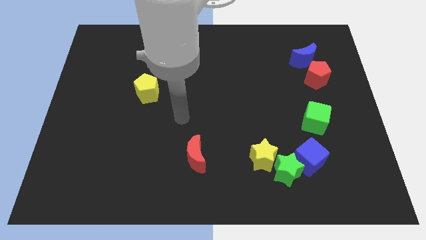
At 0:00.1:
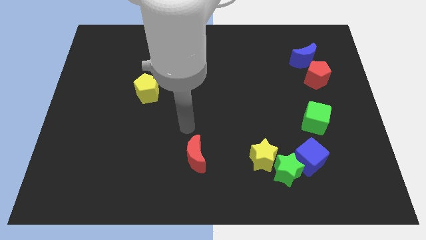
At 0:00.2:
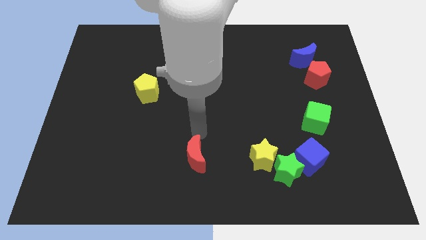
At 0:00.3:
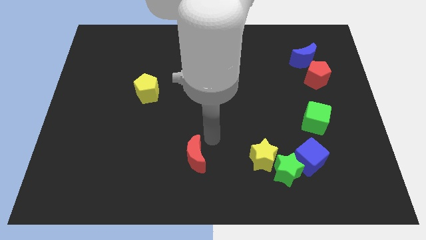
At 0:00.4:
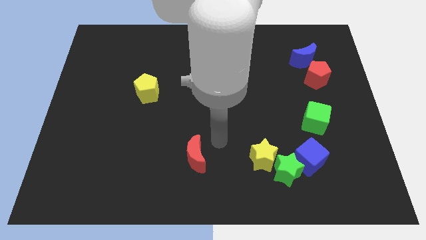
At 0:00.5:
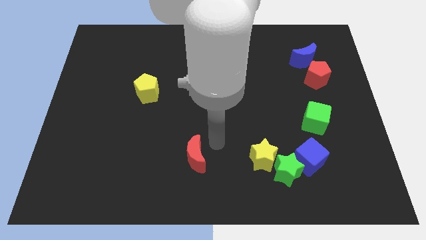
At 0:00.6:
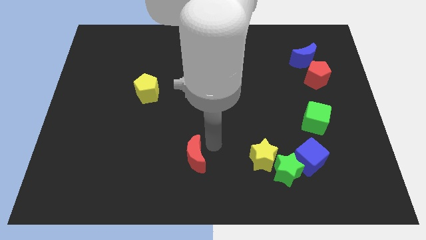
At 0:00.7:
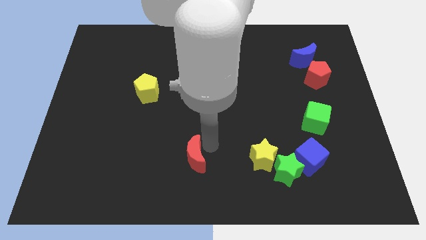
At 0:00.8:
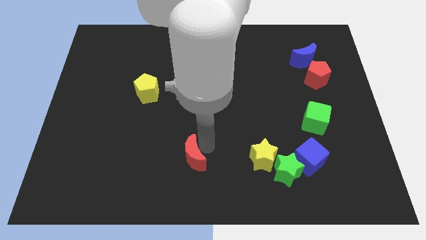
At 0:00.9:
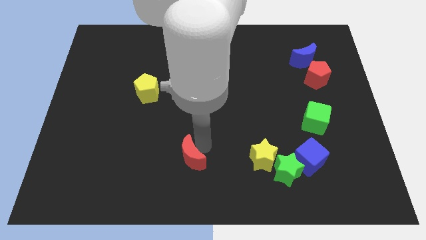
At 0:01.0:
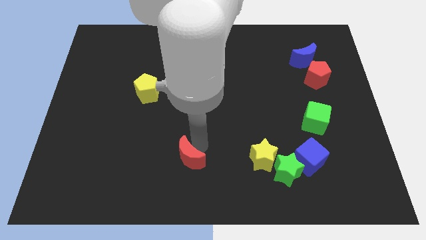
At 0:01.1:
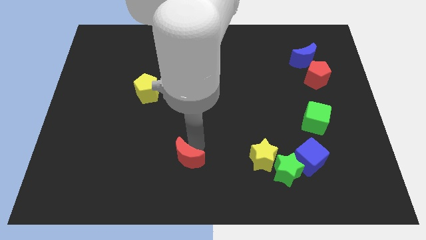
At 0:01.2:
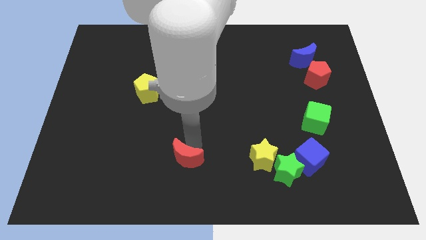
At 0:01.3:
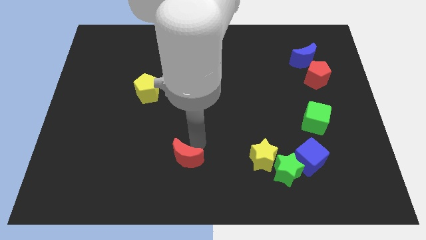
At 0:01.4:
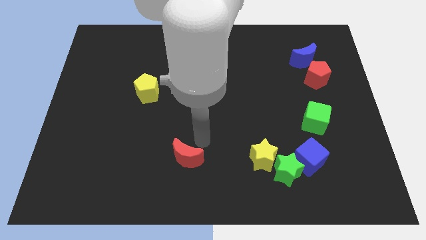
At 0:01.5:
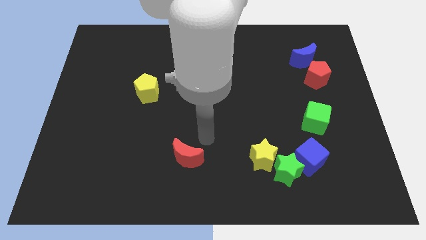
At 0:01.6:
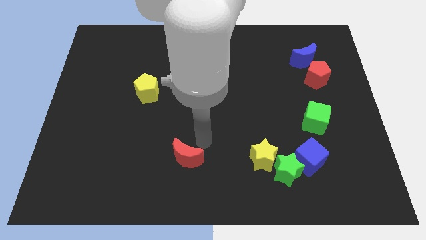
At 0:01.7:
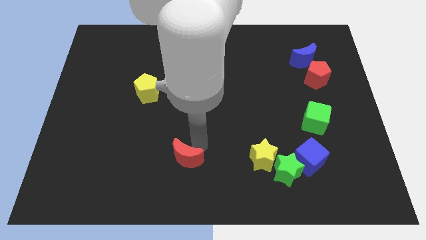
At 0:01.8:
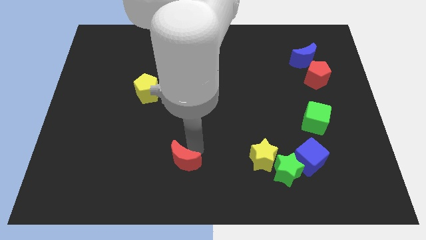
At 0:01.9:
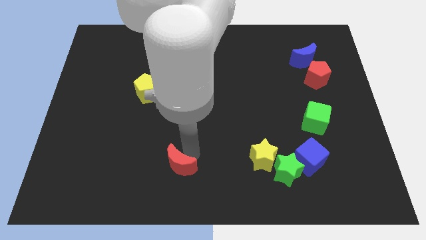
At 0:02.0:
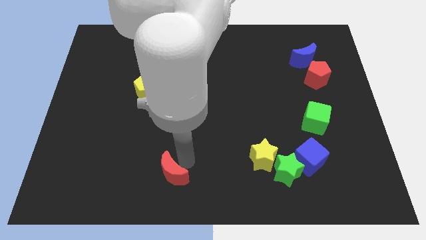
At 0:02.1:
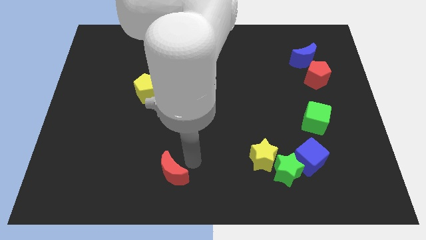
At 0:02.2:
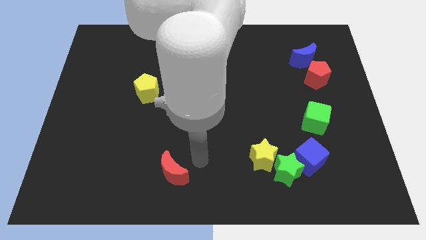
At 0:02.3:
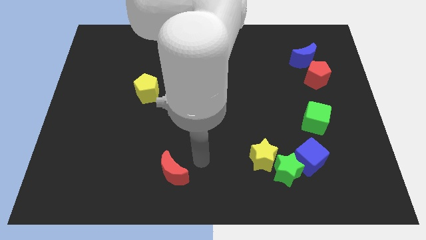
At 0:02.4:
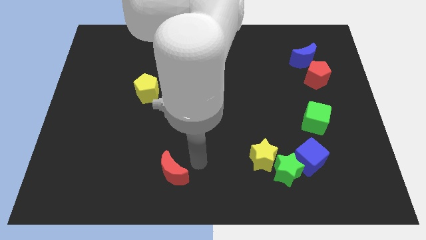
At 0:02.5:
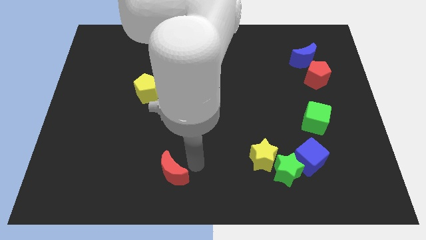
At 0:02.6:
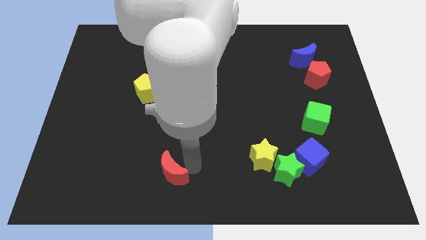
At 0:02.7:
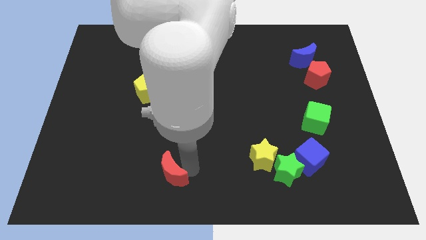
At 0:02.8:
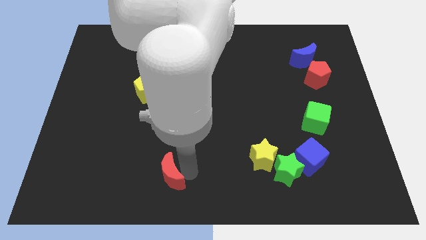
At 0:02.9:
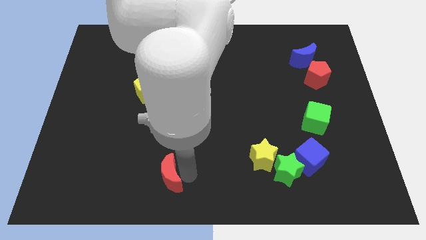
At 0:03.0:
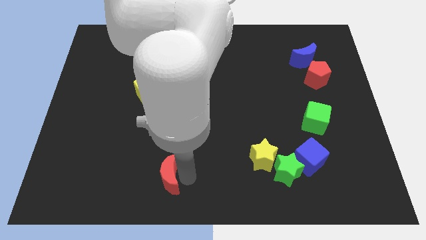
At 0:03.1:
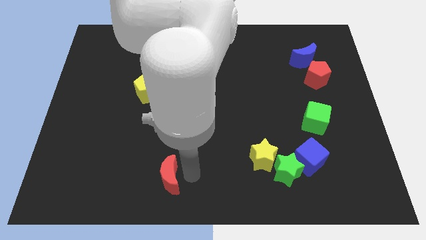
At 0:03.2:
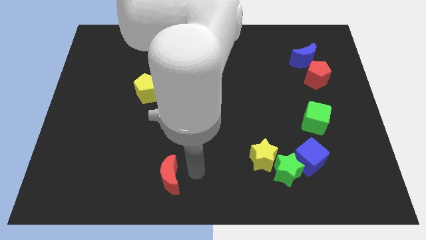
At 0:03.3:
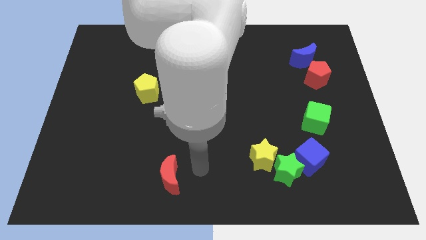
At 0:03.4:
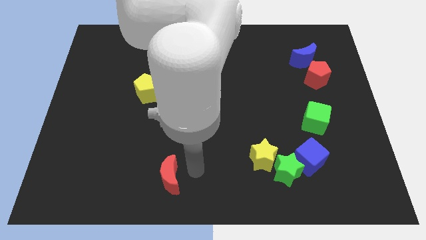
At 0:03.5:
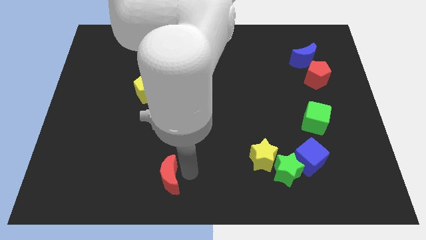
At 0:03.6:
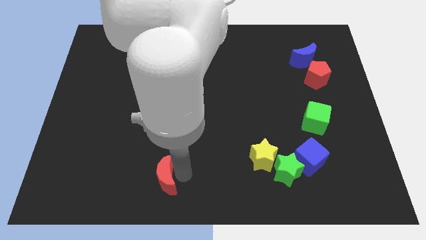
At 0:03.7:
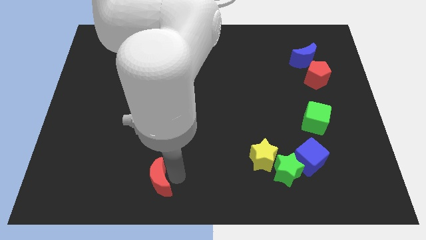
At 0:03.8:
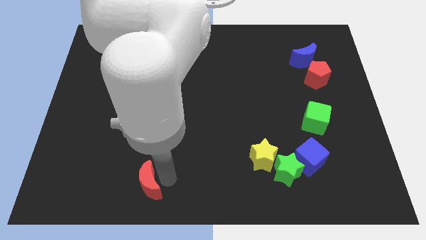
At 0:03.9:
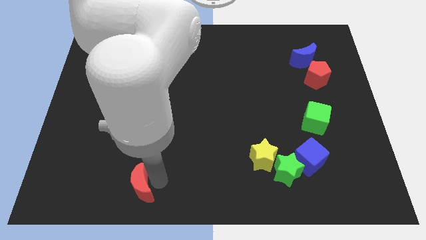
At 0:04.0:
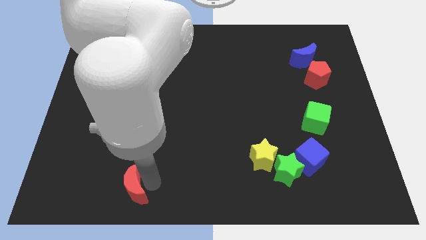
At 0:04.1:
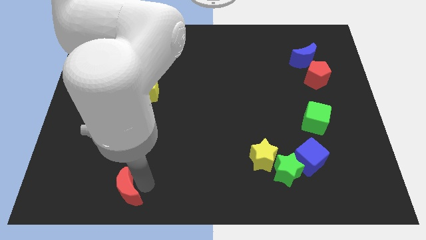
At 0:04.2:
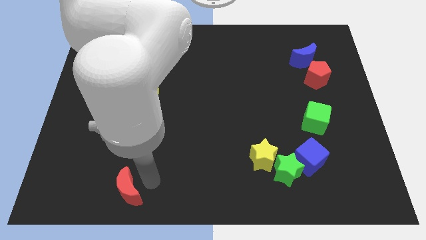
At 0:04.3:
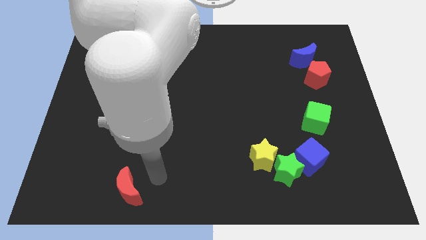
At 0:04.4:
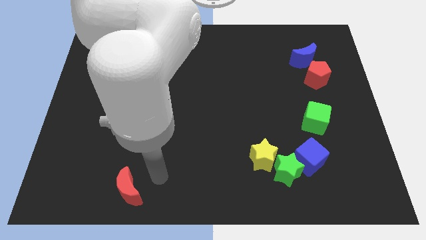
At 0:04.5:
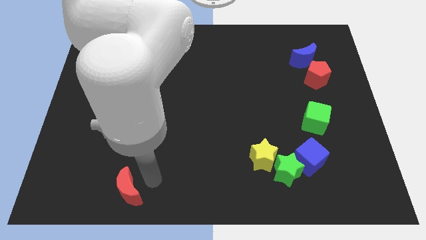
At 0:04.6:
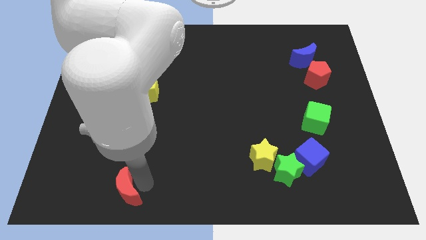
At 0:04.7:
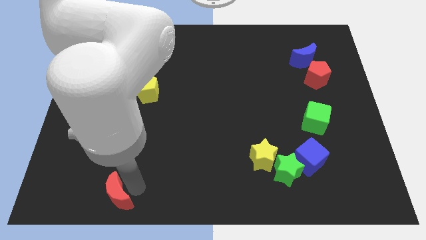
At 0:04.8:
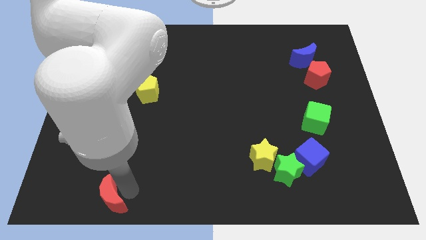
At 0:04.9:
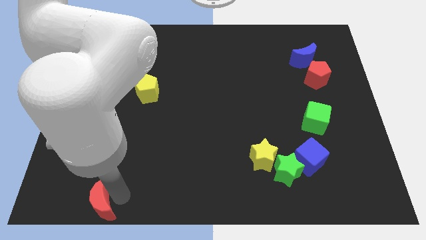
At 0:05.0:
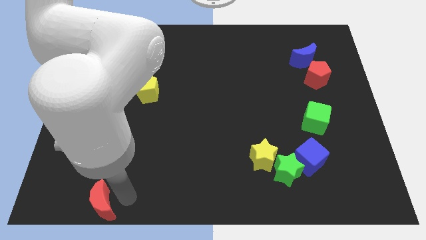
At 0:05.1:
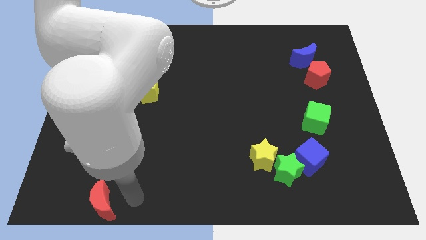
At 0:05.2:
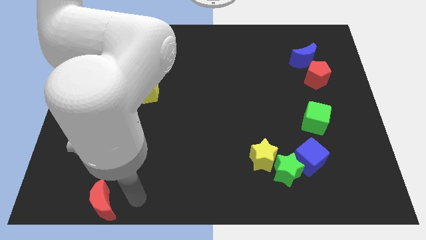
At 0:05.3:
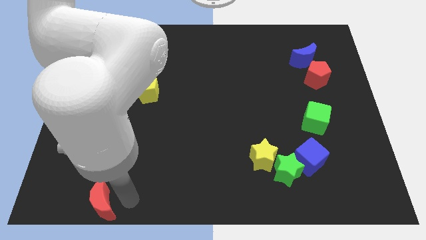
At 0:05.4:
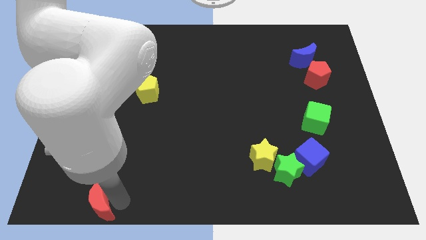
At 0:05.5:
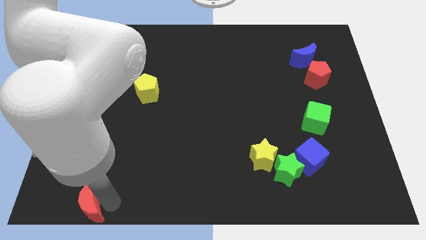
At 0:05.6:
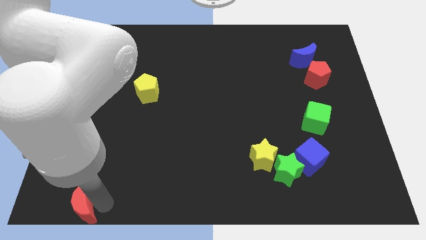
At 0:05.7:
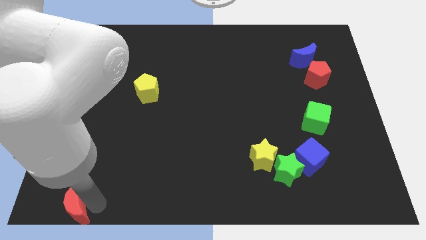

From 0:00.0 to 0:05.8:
move the red moon to the bottom left
